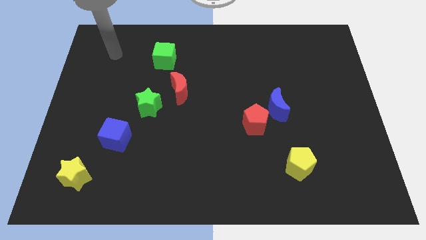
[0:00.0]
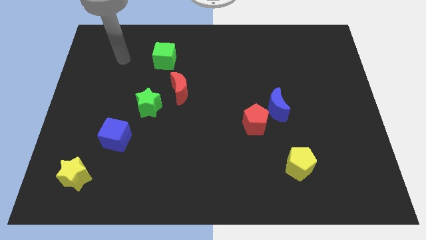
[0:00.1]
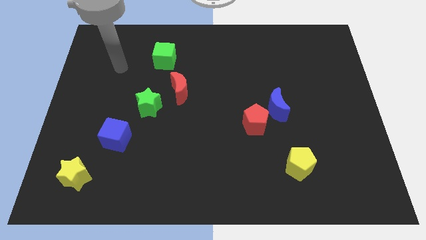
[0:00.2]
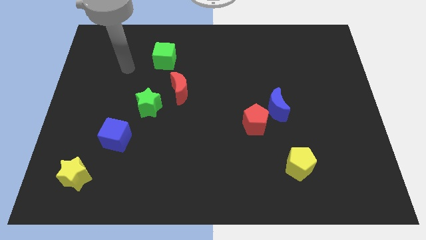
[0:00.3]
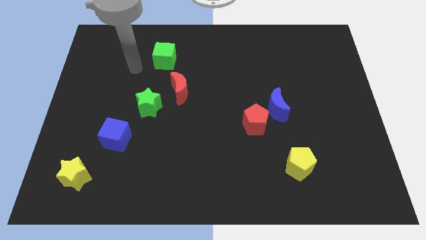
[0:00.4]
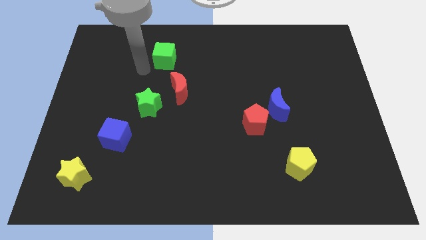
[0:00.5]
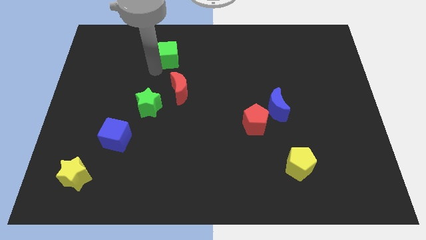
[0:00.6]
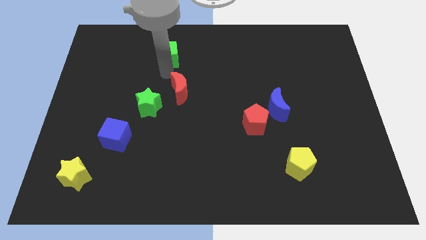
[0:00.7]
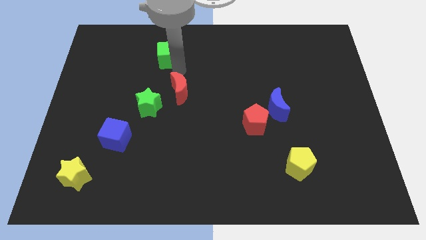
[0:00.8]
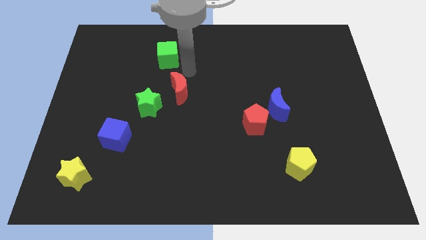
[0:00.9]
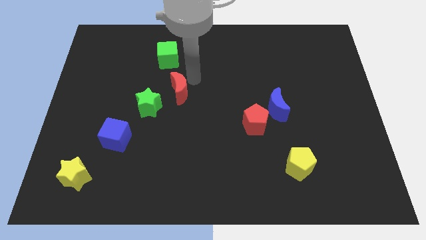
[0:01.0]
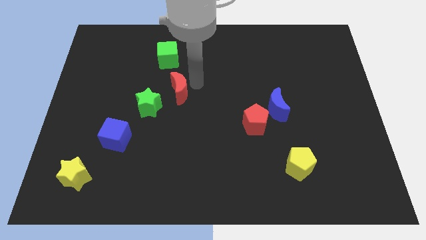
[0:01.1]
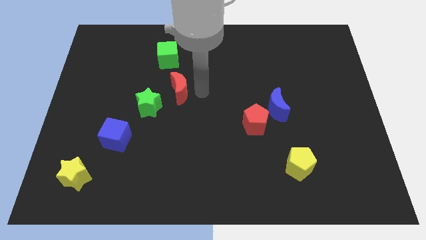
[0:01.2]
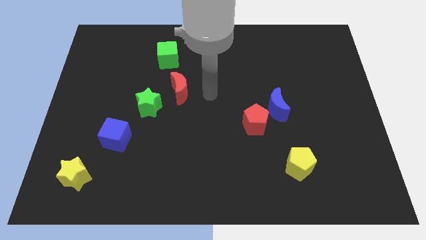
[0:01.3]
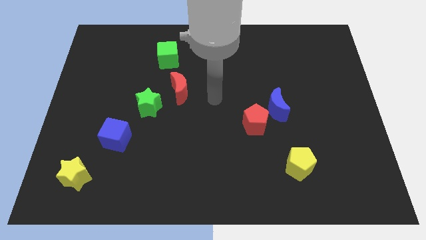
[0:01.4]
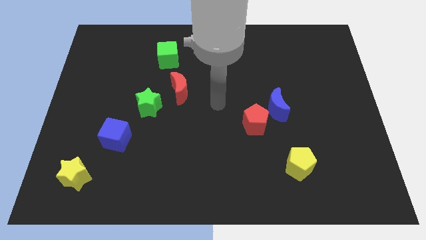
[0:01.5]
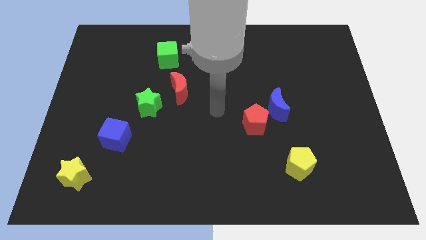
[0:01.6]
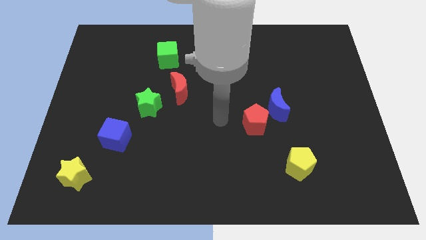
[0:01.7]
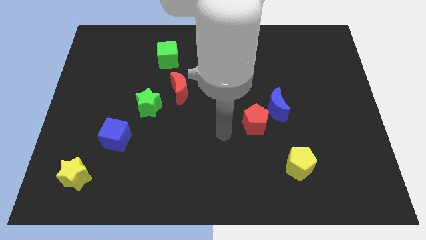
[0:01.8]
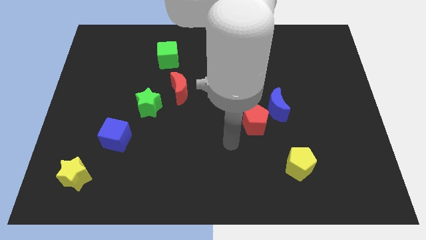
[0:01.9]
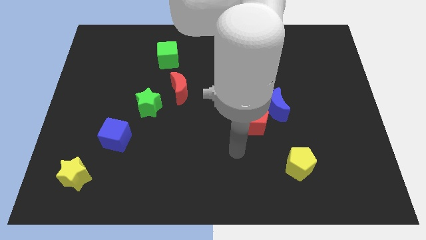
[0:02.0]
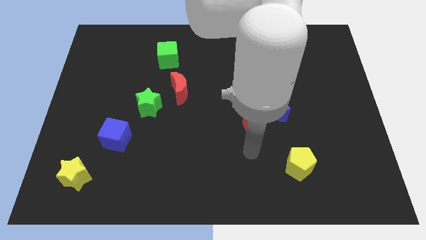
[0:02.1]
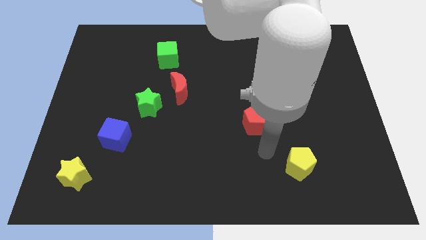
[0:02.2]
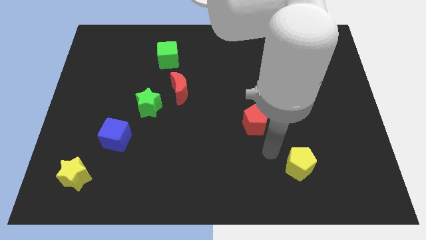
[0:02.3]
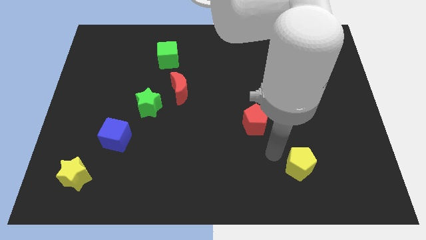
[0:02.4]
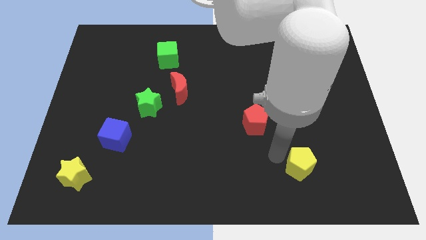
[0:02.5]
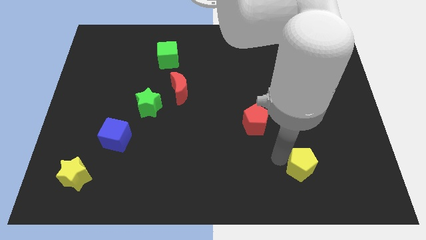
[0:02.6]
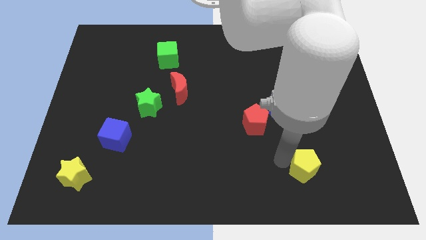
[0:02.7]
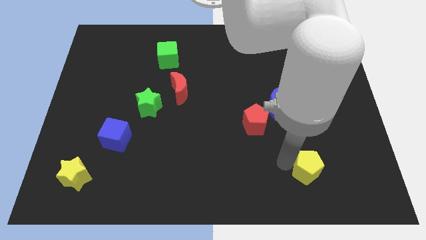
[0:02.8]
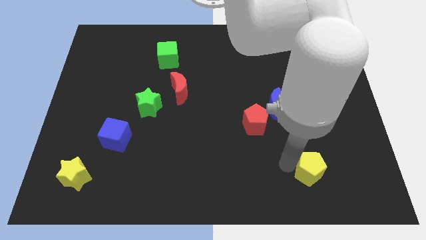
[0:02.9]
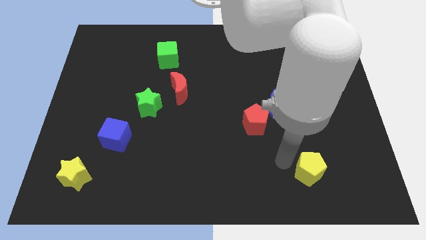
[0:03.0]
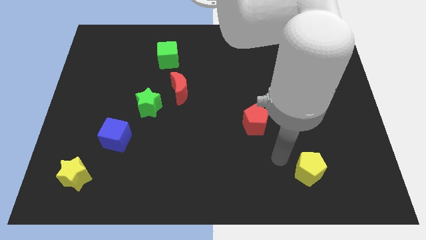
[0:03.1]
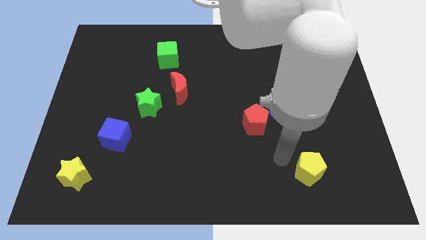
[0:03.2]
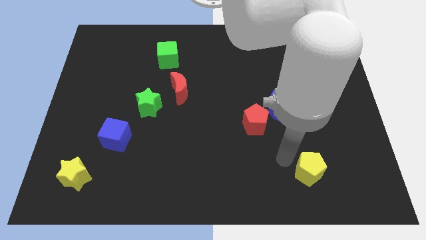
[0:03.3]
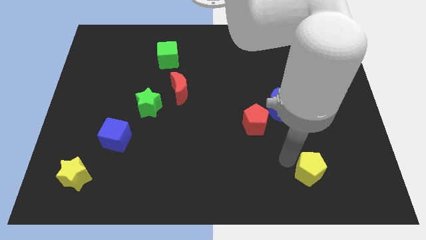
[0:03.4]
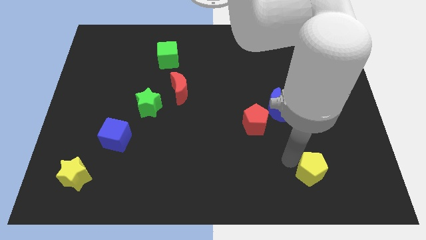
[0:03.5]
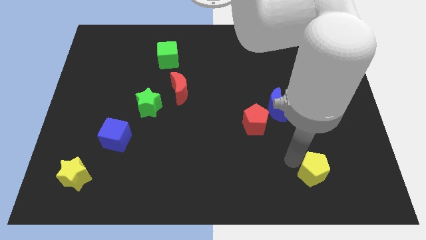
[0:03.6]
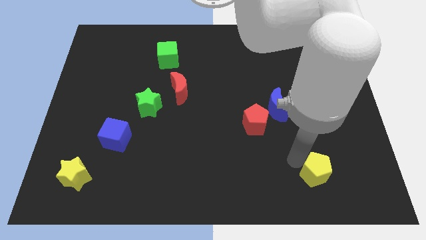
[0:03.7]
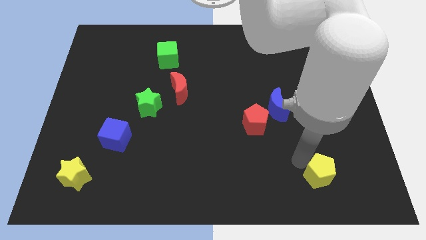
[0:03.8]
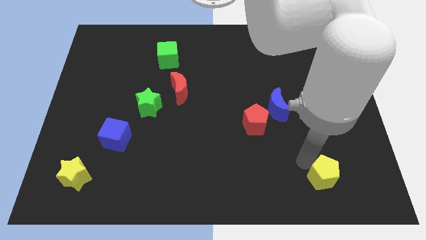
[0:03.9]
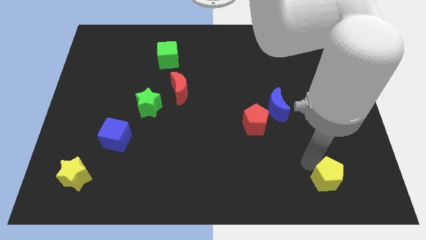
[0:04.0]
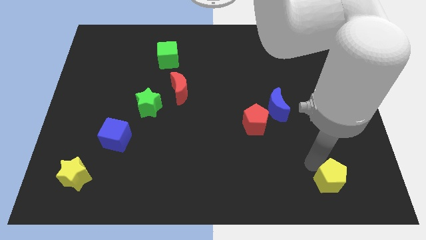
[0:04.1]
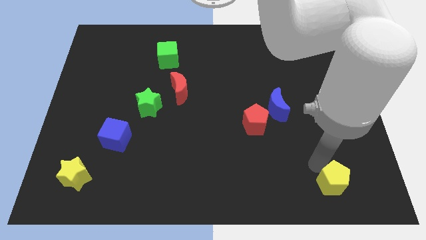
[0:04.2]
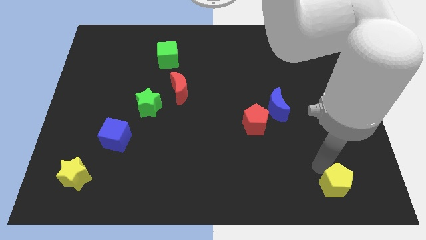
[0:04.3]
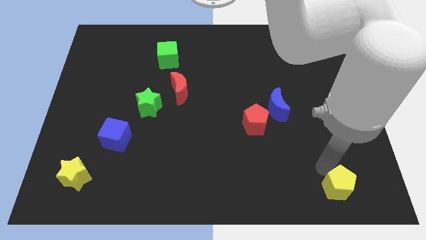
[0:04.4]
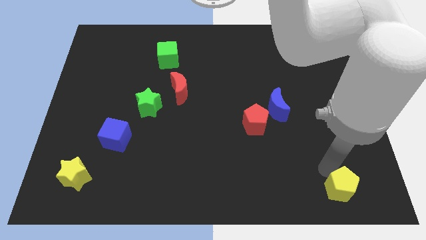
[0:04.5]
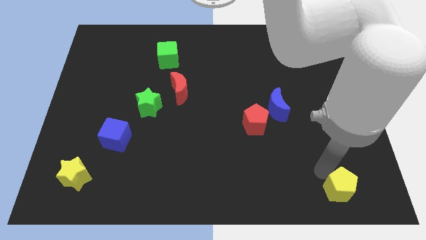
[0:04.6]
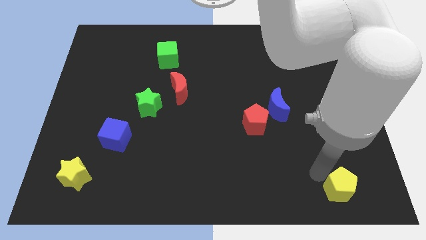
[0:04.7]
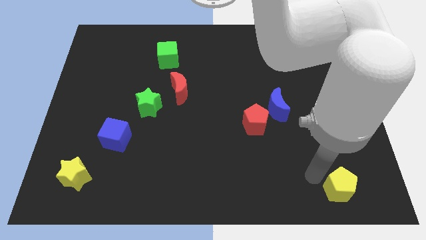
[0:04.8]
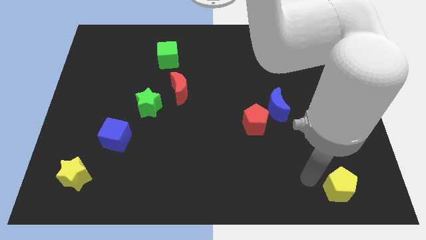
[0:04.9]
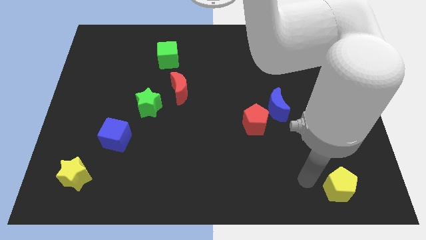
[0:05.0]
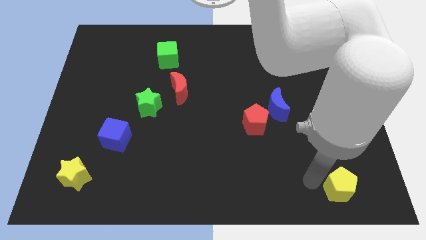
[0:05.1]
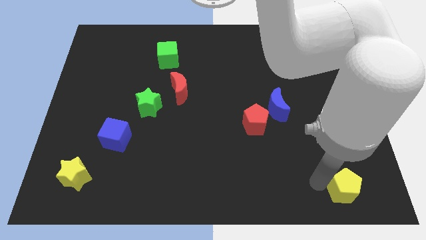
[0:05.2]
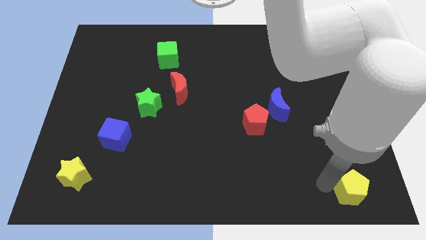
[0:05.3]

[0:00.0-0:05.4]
move the yellow pentagon to the bottom right corner

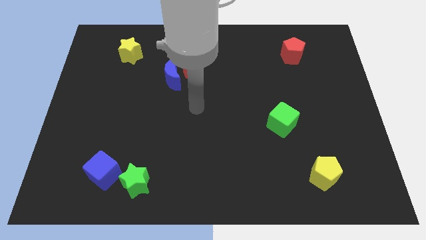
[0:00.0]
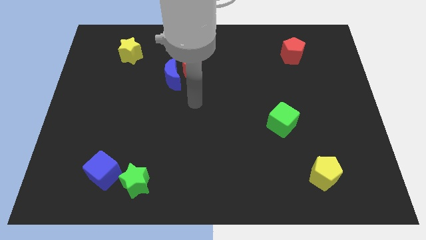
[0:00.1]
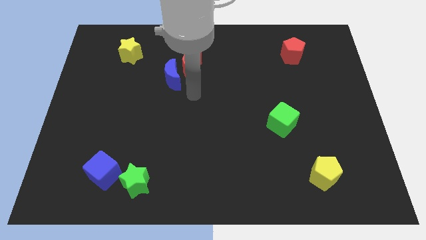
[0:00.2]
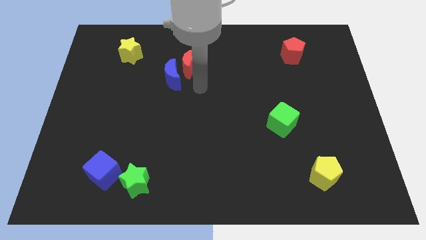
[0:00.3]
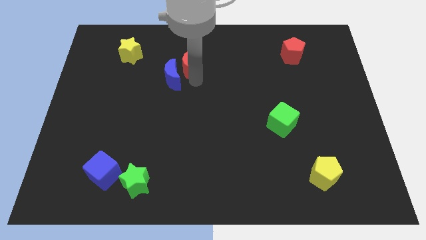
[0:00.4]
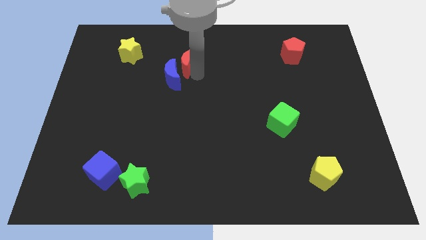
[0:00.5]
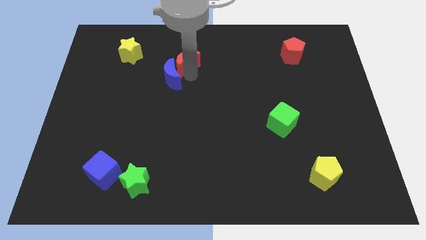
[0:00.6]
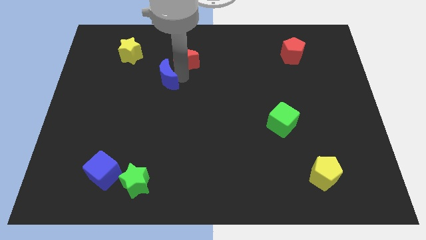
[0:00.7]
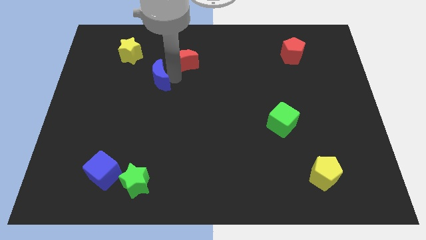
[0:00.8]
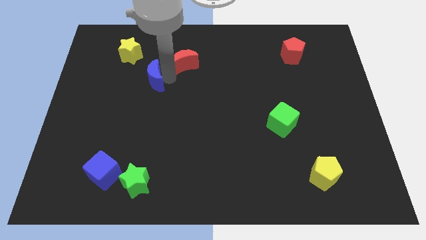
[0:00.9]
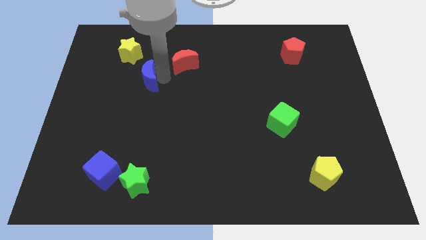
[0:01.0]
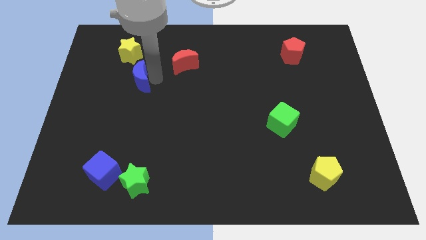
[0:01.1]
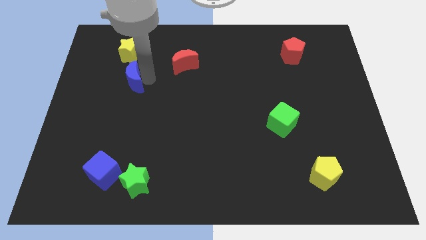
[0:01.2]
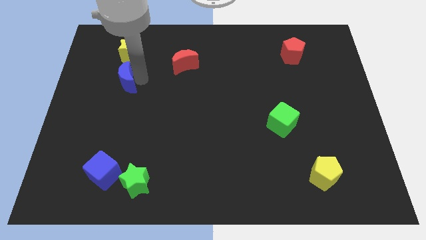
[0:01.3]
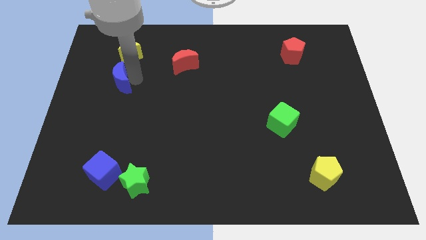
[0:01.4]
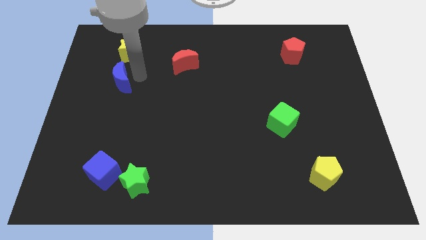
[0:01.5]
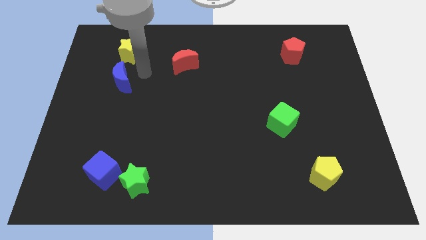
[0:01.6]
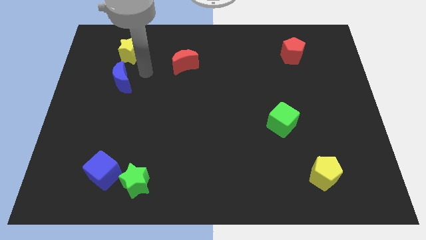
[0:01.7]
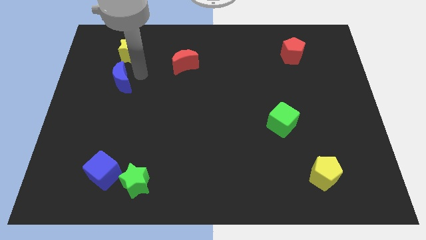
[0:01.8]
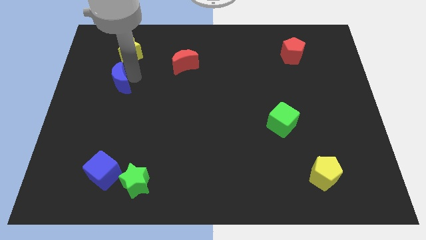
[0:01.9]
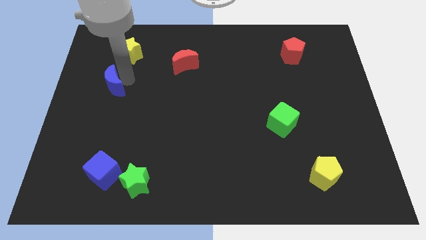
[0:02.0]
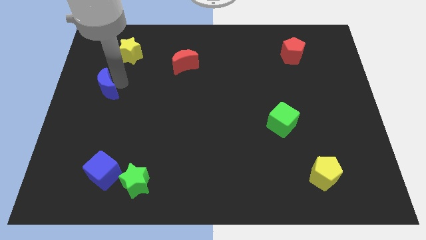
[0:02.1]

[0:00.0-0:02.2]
move the blue moon to the center left
